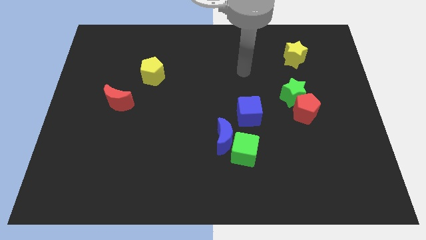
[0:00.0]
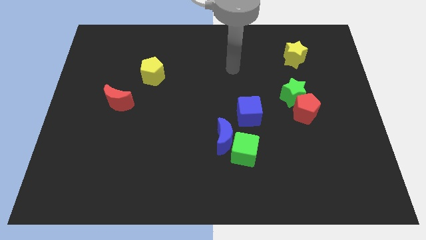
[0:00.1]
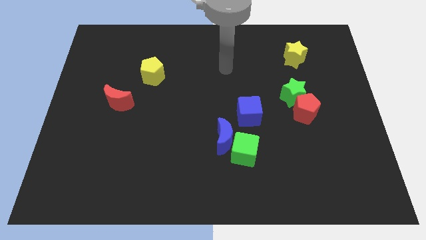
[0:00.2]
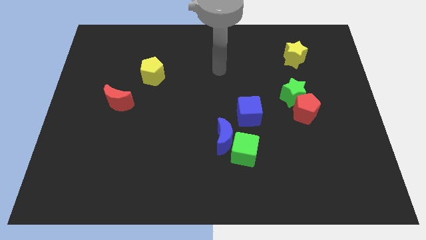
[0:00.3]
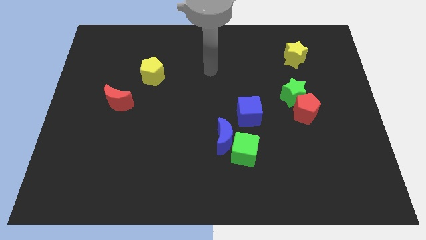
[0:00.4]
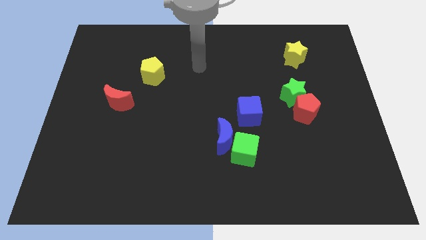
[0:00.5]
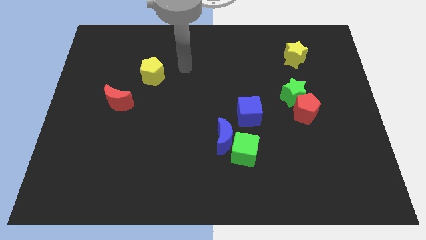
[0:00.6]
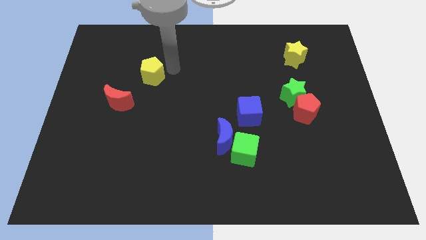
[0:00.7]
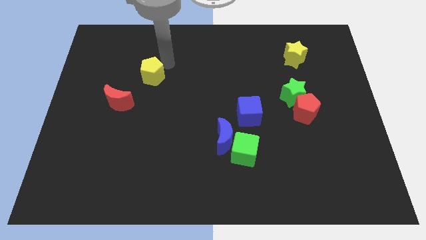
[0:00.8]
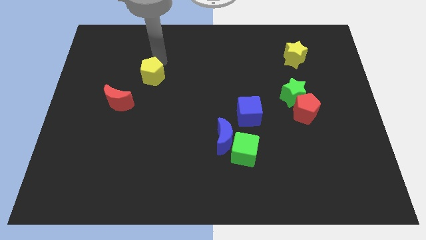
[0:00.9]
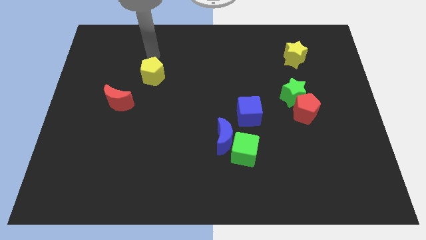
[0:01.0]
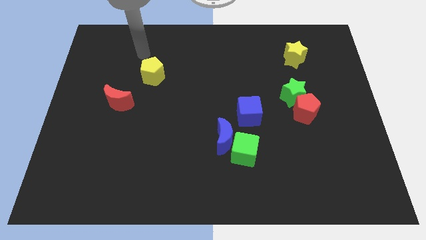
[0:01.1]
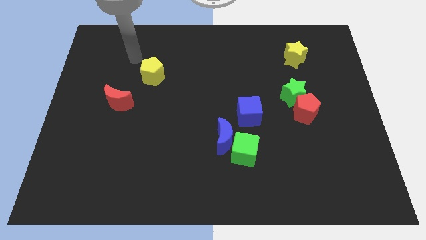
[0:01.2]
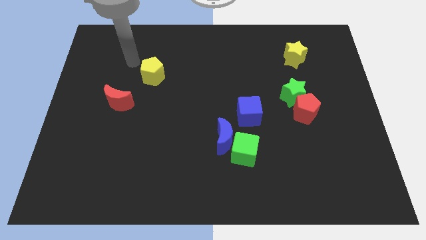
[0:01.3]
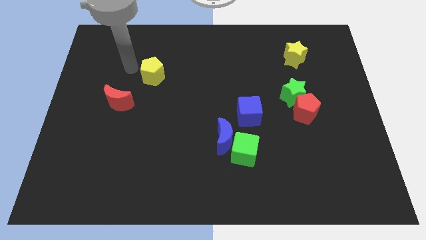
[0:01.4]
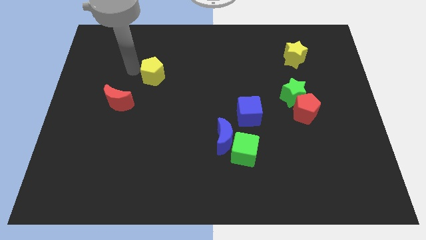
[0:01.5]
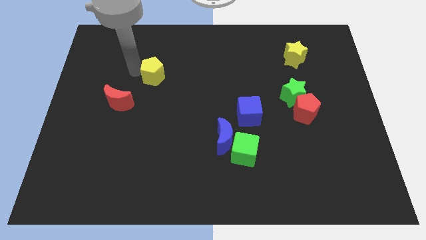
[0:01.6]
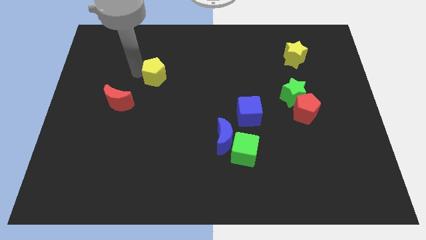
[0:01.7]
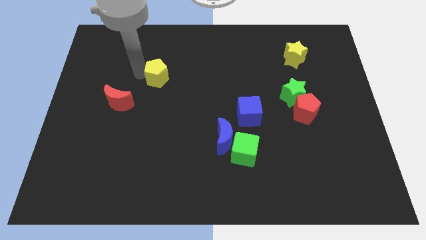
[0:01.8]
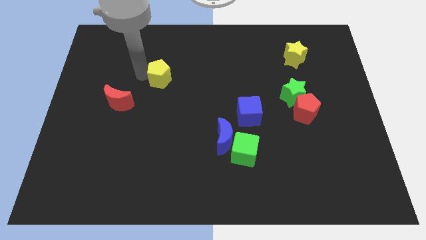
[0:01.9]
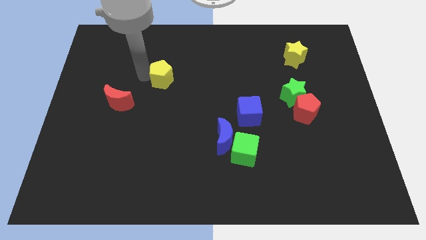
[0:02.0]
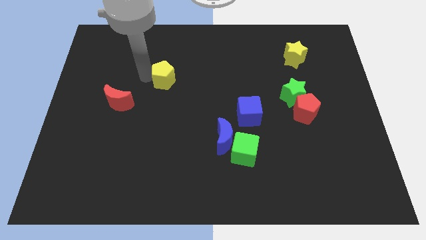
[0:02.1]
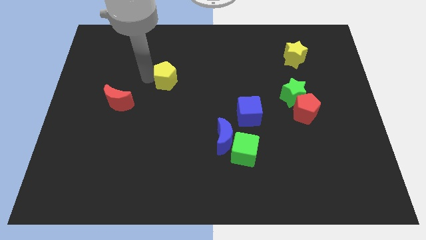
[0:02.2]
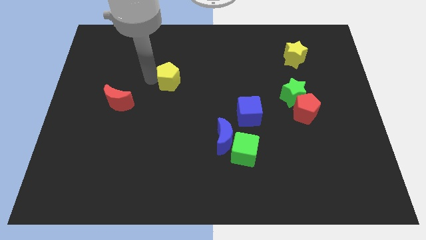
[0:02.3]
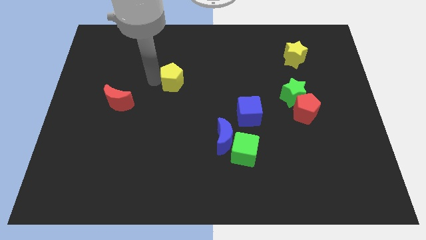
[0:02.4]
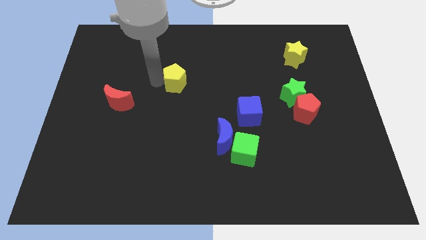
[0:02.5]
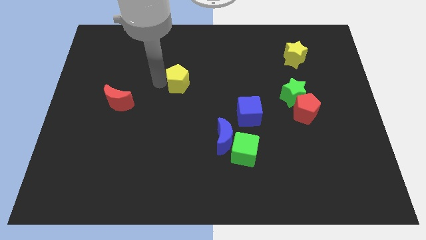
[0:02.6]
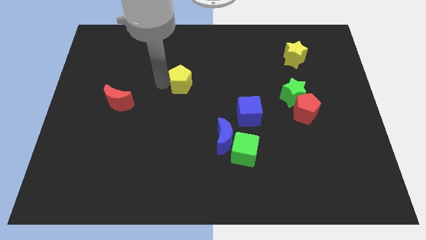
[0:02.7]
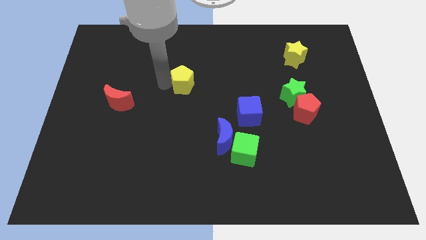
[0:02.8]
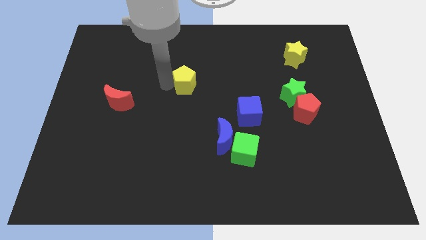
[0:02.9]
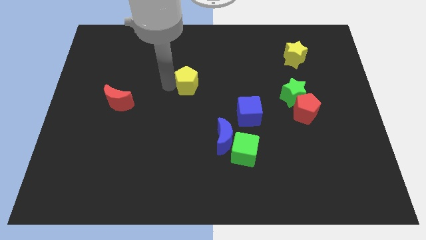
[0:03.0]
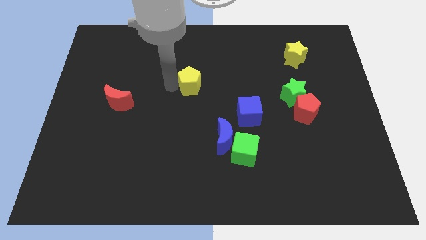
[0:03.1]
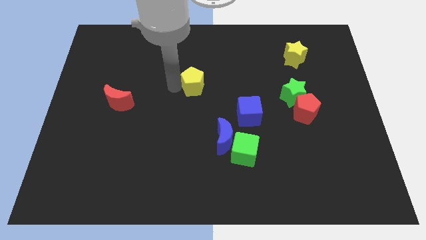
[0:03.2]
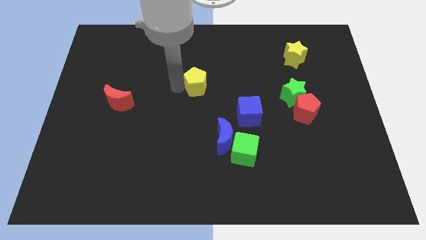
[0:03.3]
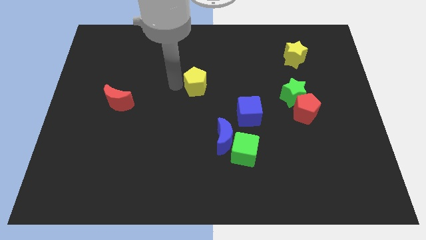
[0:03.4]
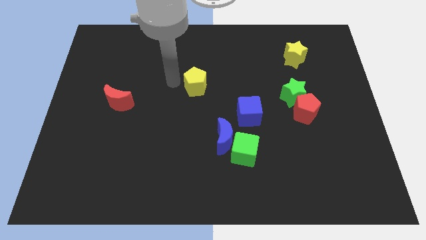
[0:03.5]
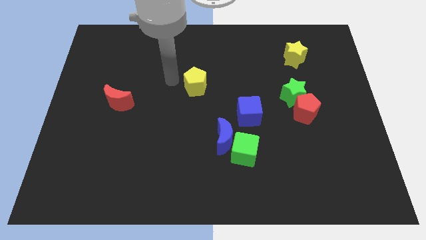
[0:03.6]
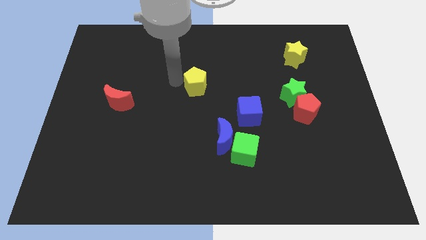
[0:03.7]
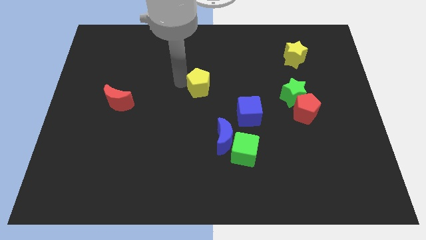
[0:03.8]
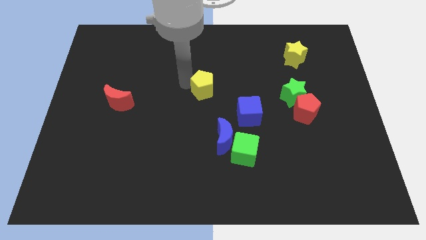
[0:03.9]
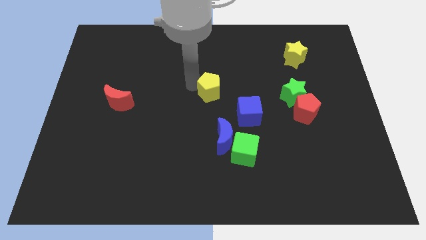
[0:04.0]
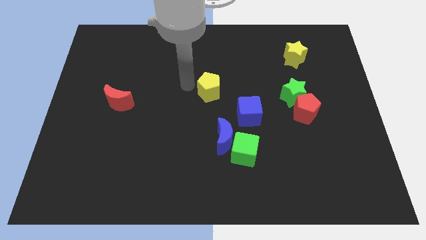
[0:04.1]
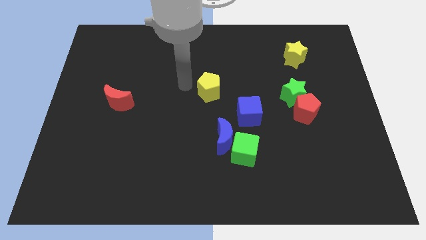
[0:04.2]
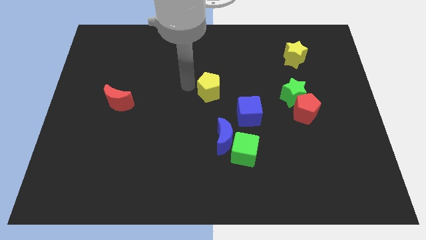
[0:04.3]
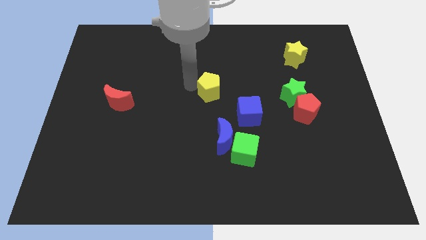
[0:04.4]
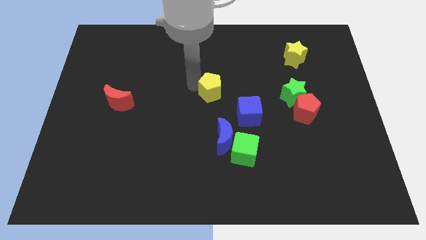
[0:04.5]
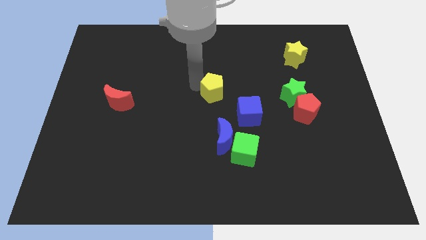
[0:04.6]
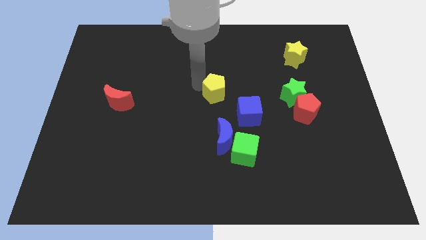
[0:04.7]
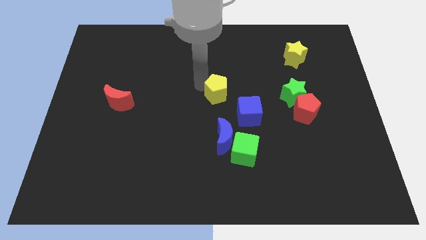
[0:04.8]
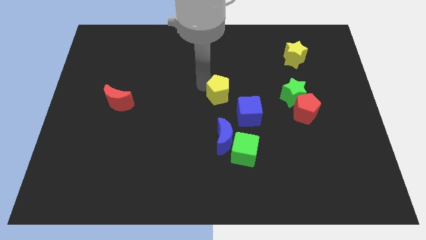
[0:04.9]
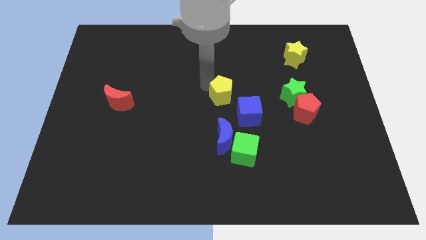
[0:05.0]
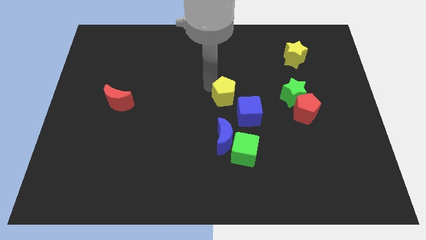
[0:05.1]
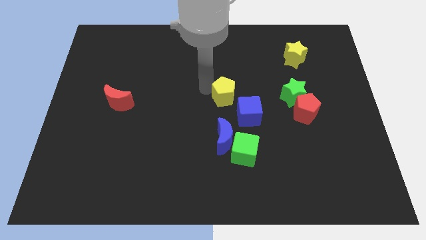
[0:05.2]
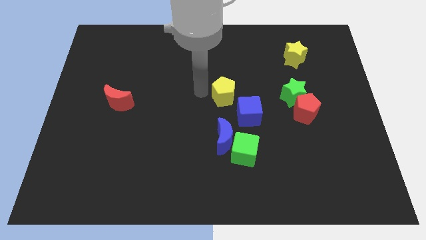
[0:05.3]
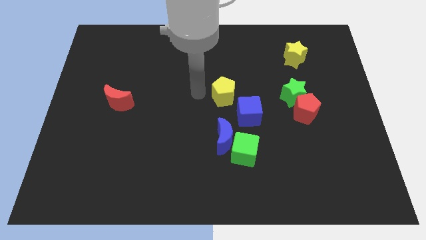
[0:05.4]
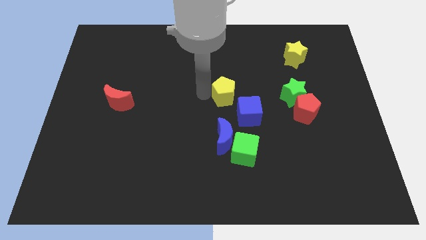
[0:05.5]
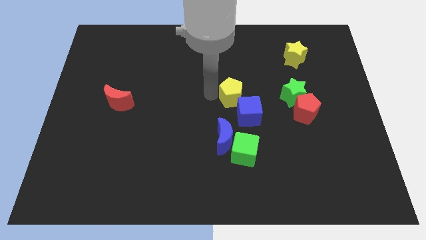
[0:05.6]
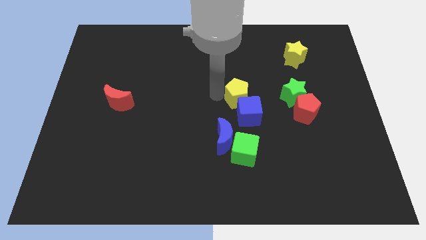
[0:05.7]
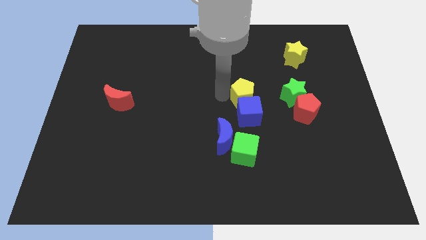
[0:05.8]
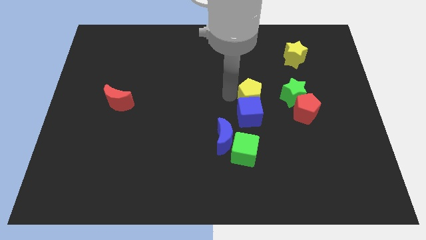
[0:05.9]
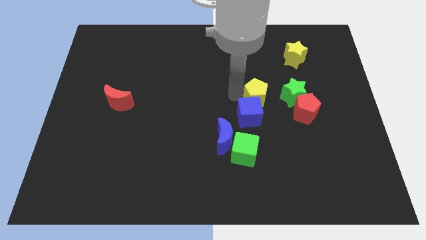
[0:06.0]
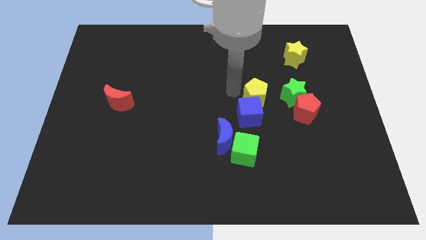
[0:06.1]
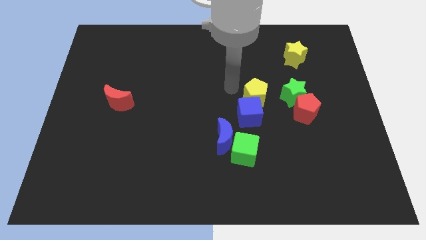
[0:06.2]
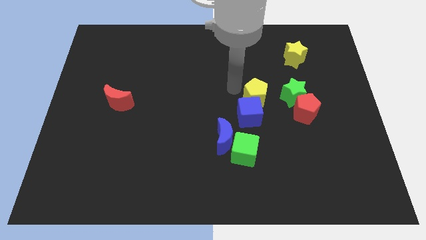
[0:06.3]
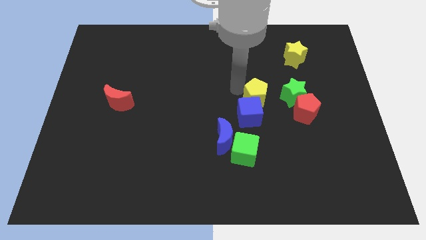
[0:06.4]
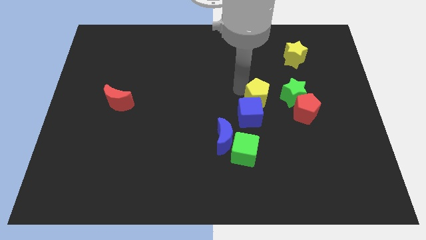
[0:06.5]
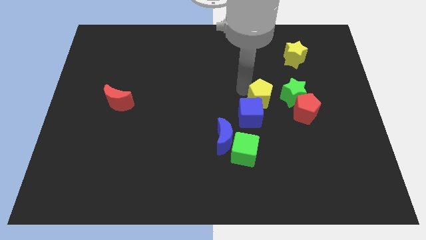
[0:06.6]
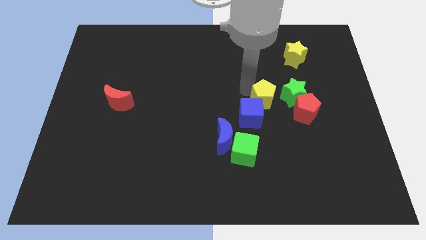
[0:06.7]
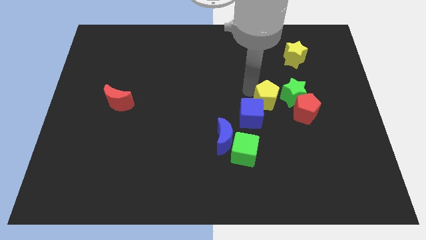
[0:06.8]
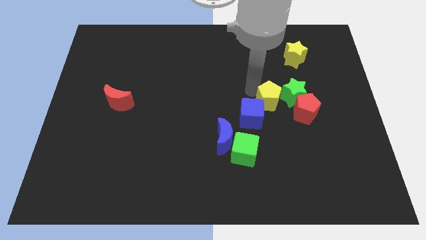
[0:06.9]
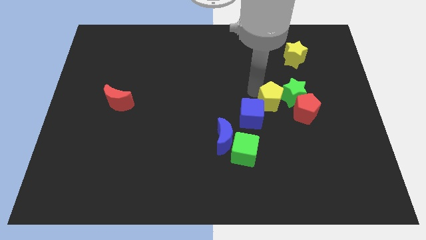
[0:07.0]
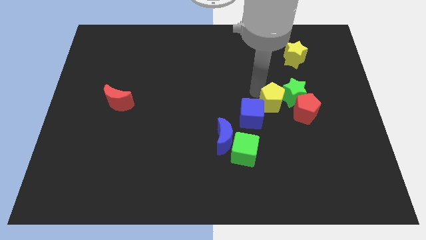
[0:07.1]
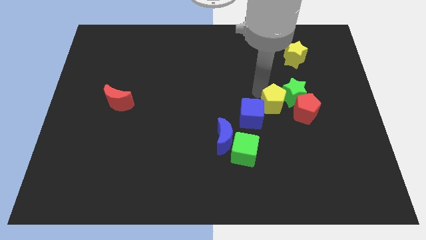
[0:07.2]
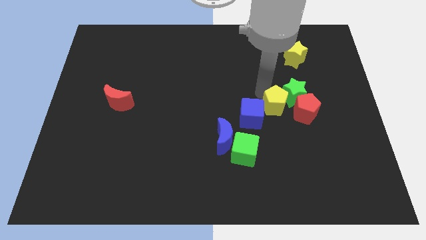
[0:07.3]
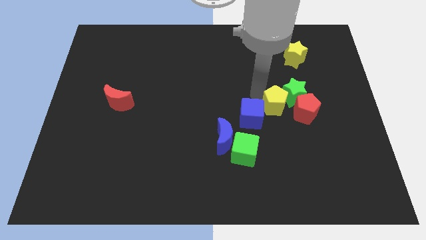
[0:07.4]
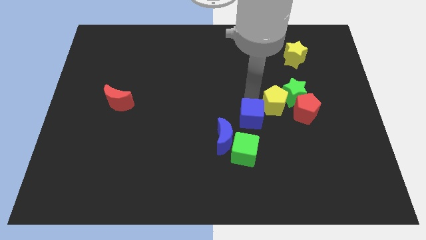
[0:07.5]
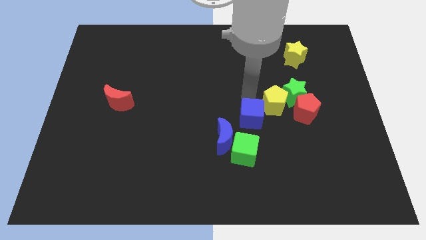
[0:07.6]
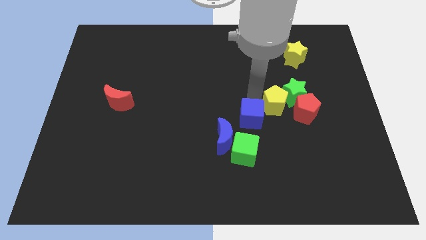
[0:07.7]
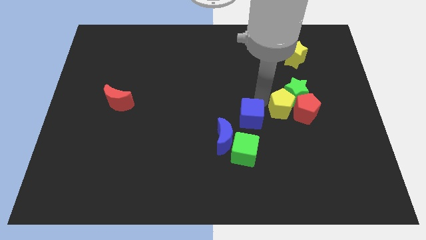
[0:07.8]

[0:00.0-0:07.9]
move the yellow pentagon next to the red pentagon
